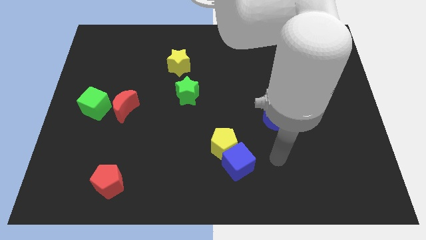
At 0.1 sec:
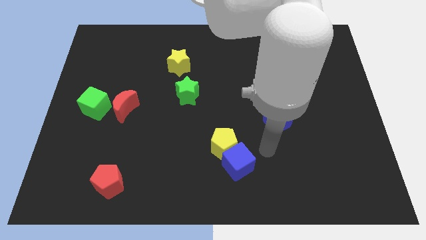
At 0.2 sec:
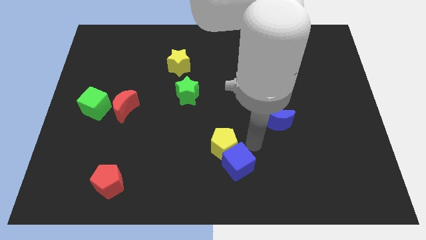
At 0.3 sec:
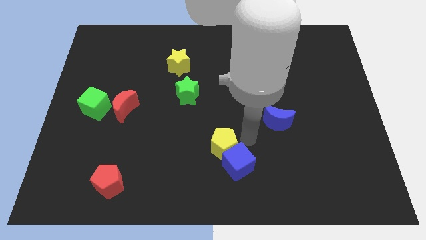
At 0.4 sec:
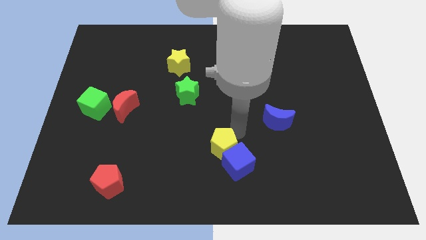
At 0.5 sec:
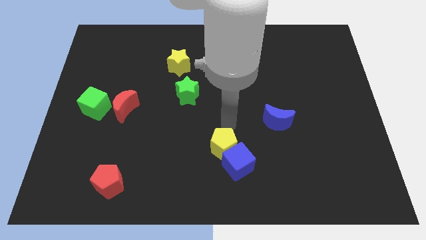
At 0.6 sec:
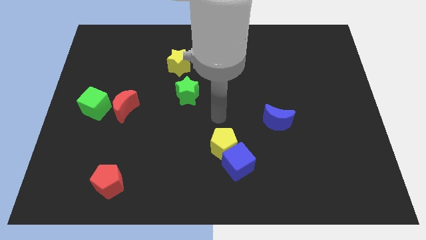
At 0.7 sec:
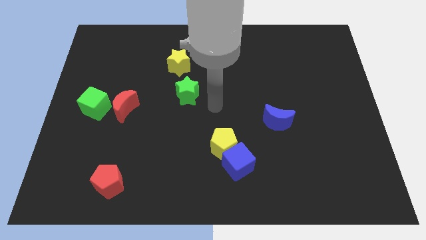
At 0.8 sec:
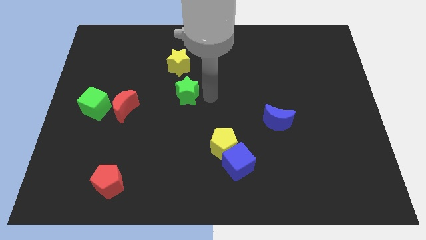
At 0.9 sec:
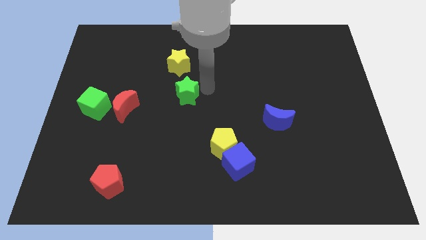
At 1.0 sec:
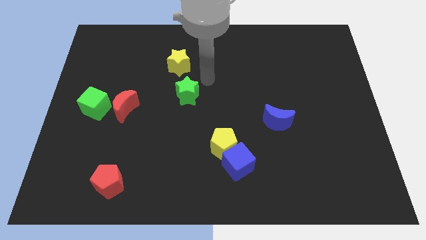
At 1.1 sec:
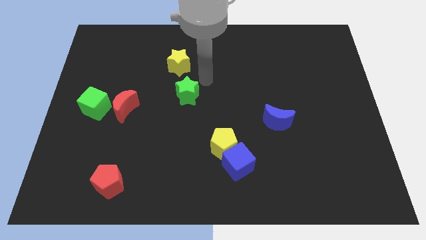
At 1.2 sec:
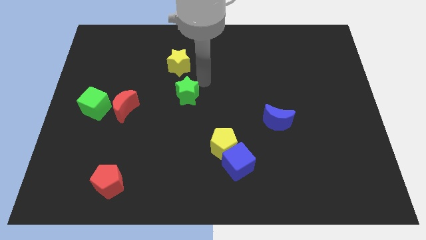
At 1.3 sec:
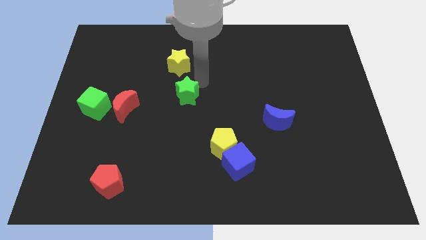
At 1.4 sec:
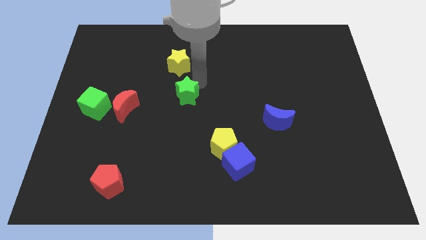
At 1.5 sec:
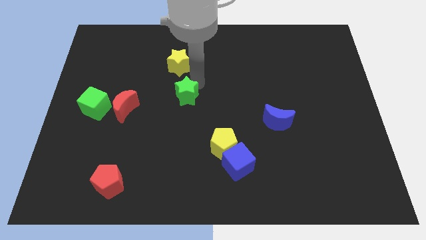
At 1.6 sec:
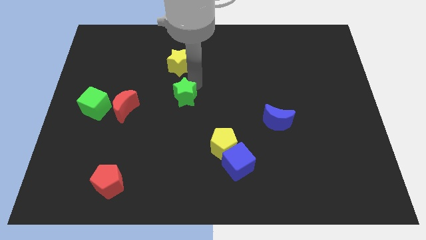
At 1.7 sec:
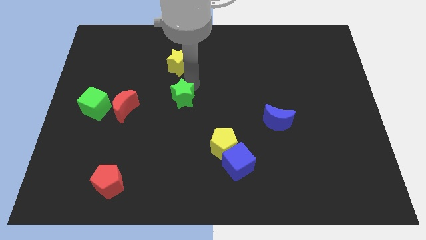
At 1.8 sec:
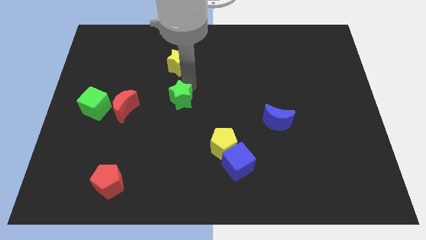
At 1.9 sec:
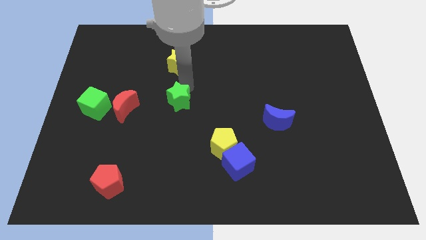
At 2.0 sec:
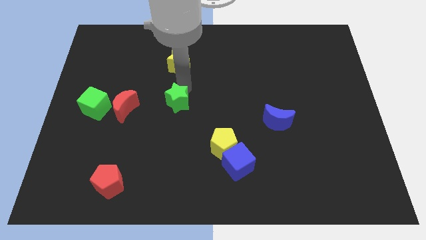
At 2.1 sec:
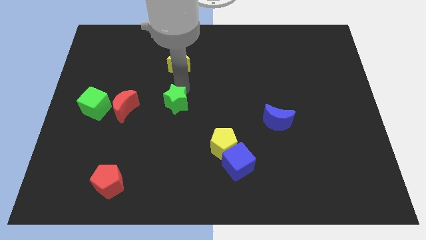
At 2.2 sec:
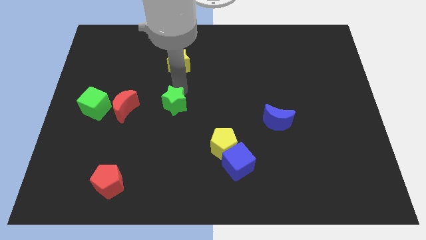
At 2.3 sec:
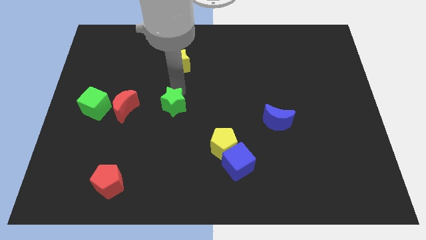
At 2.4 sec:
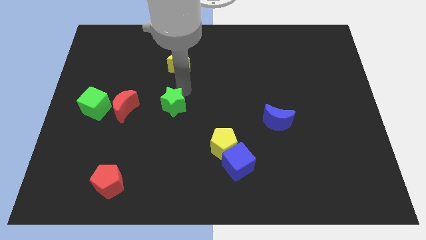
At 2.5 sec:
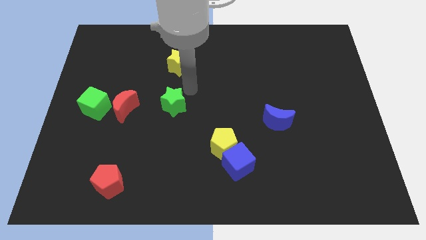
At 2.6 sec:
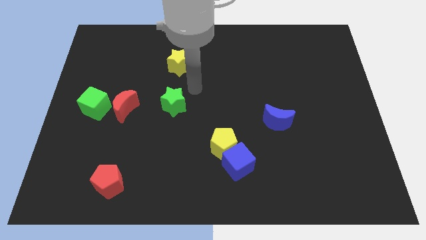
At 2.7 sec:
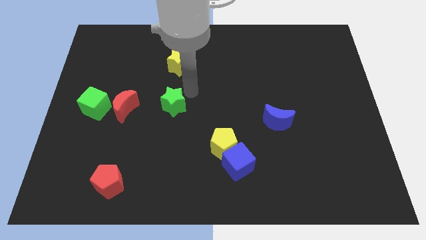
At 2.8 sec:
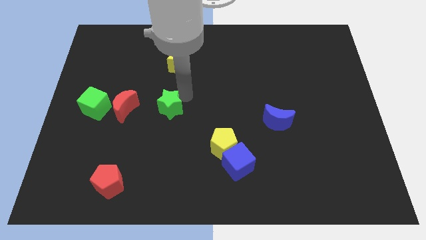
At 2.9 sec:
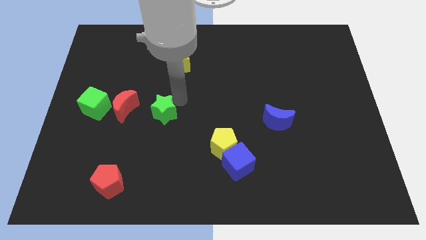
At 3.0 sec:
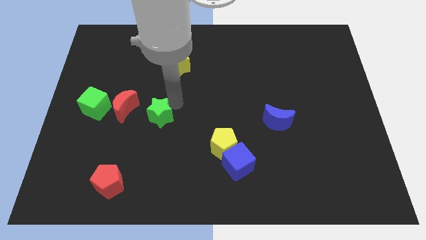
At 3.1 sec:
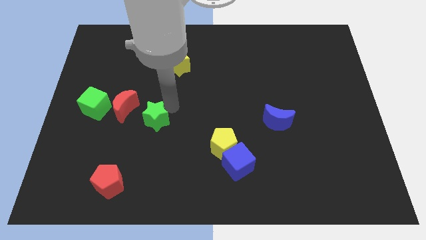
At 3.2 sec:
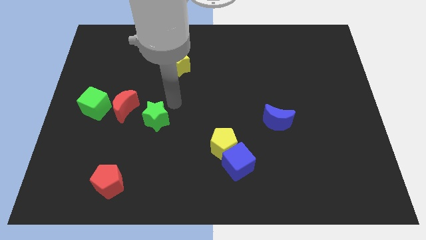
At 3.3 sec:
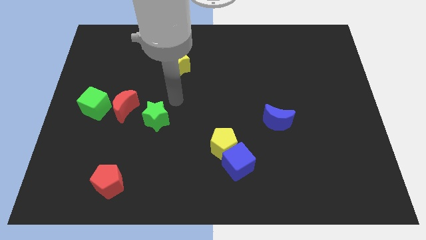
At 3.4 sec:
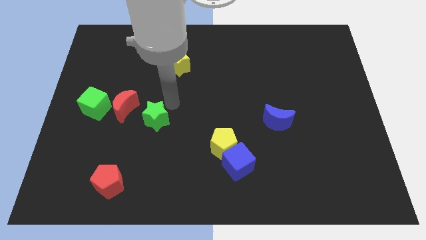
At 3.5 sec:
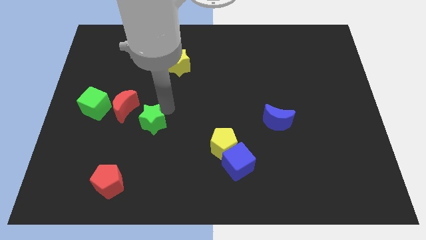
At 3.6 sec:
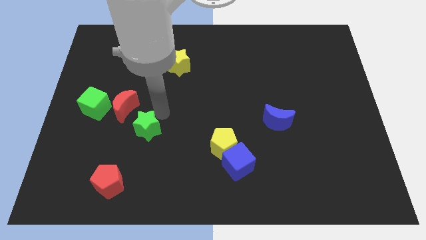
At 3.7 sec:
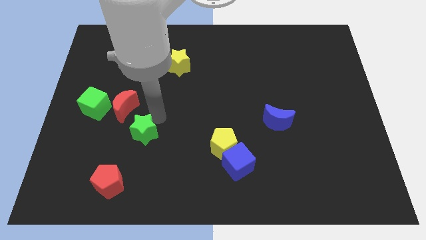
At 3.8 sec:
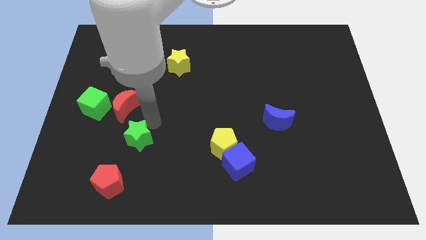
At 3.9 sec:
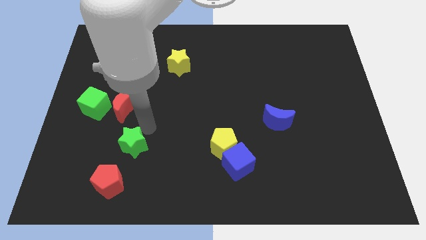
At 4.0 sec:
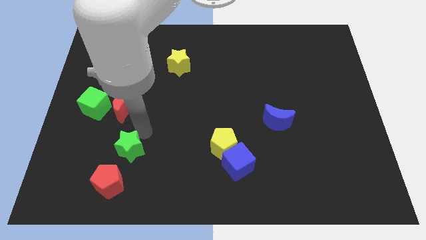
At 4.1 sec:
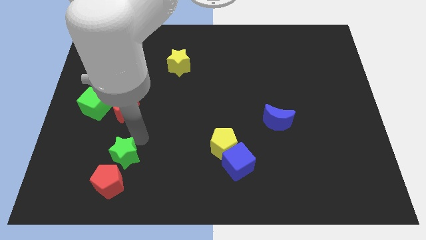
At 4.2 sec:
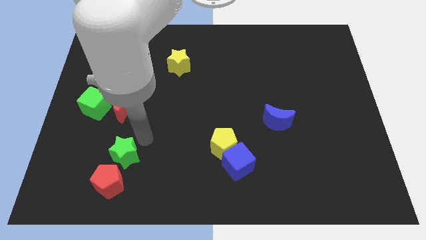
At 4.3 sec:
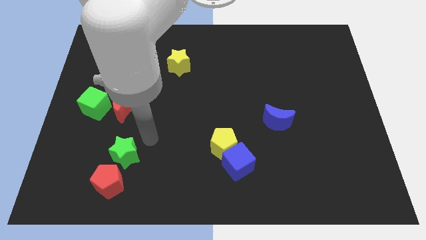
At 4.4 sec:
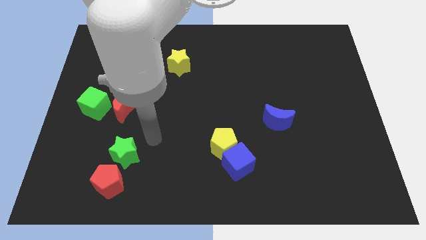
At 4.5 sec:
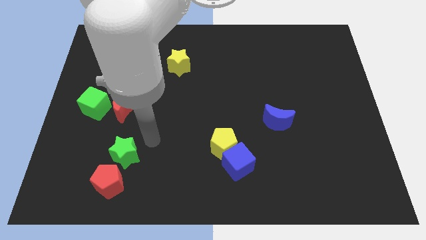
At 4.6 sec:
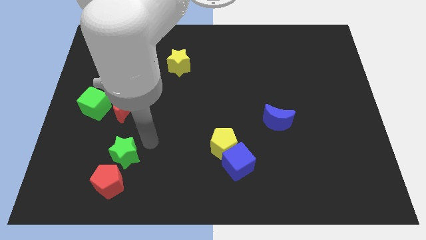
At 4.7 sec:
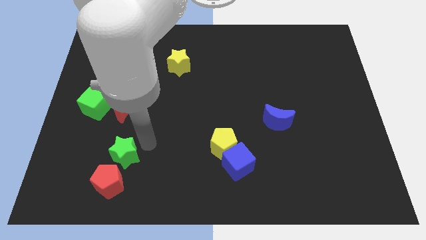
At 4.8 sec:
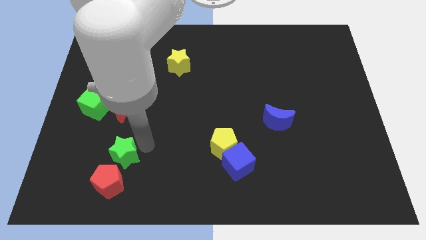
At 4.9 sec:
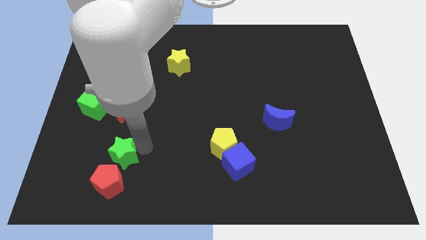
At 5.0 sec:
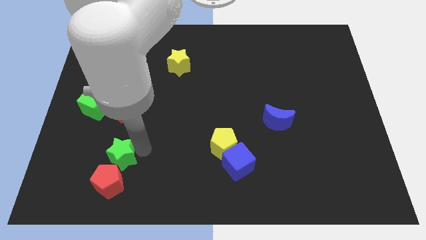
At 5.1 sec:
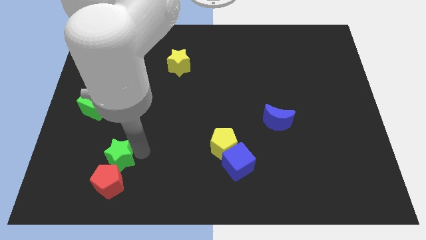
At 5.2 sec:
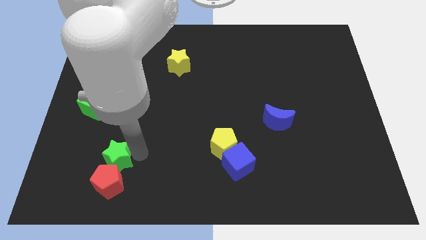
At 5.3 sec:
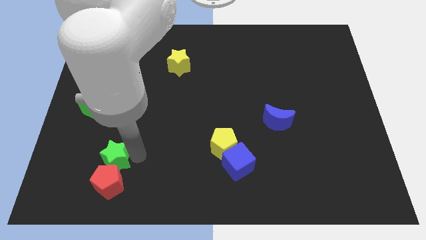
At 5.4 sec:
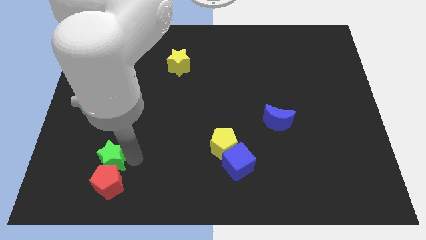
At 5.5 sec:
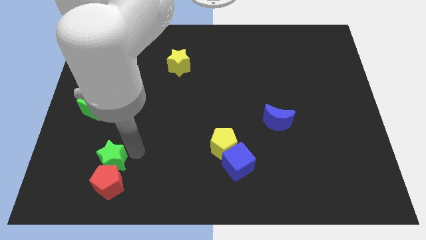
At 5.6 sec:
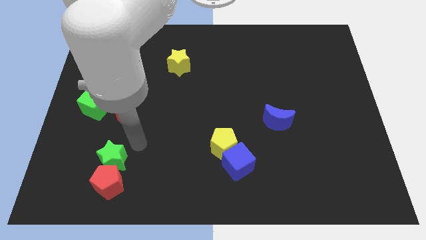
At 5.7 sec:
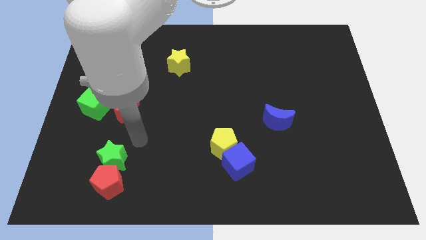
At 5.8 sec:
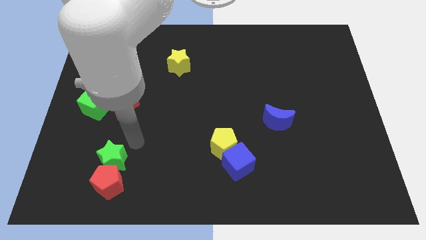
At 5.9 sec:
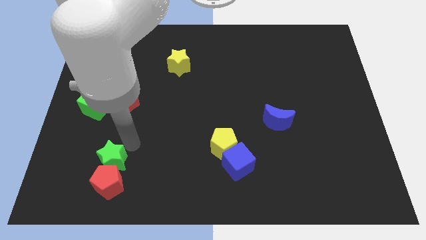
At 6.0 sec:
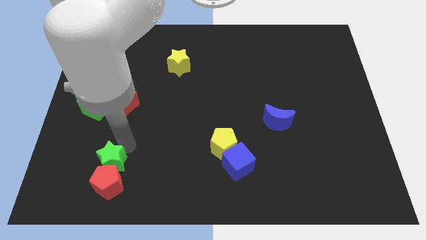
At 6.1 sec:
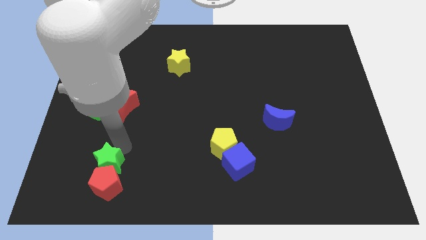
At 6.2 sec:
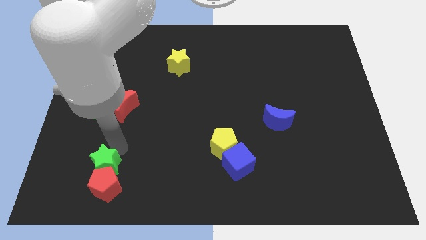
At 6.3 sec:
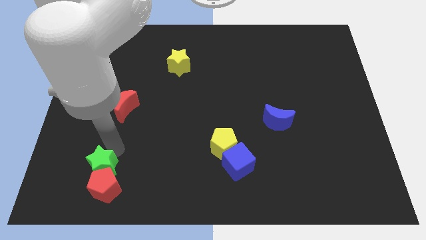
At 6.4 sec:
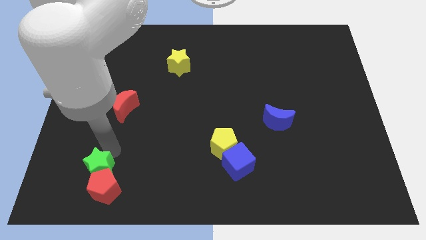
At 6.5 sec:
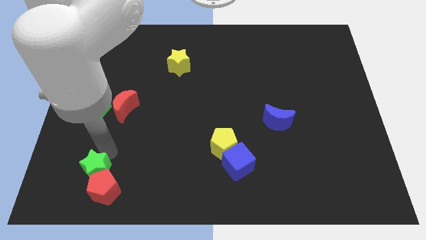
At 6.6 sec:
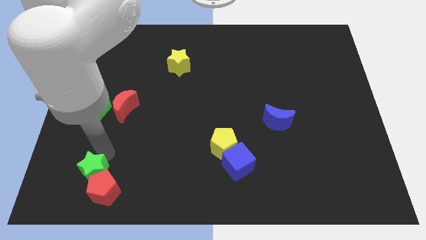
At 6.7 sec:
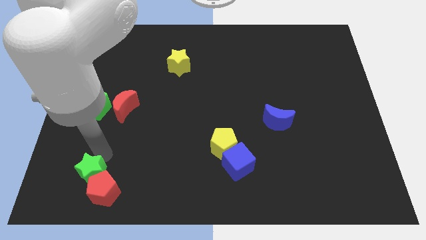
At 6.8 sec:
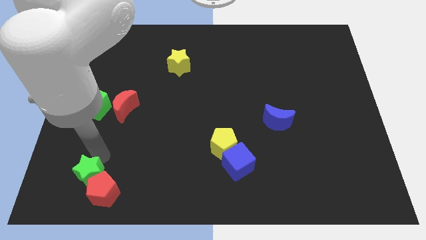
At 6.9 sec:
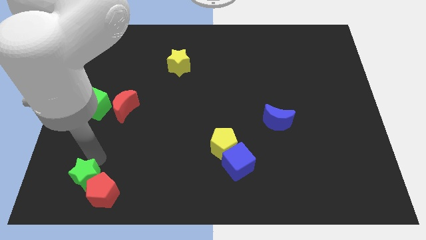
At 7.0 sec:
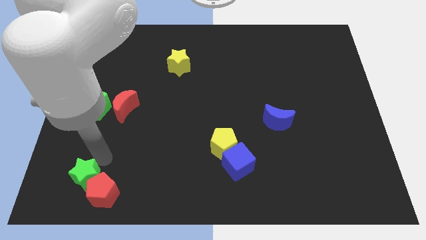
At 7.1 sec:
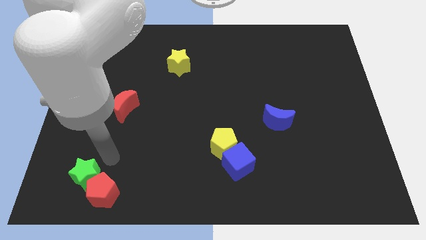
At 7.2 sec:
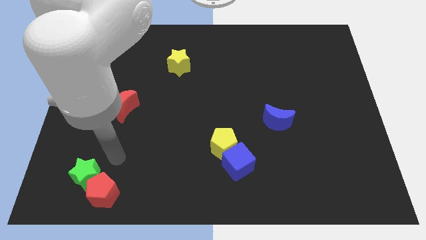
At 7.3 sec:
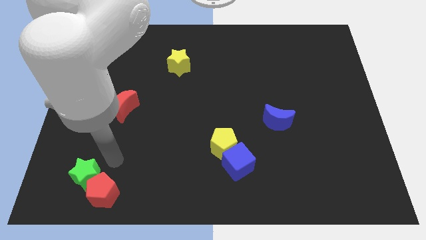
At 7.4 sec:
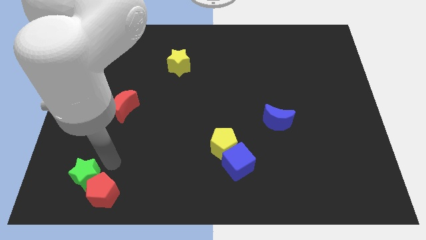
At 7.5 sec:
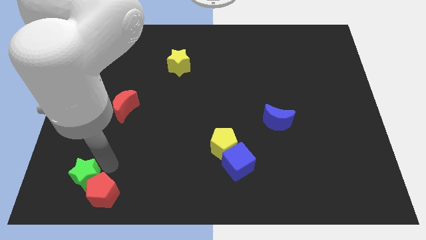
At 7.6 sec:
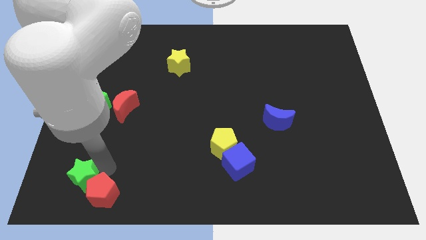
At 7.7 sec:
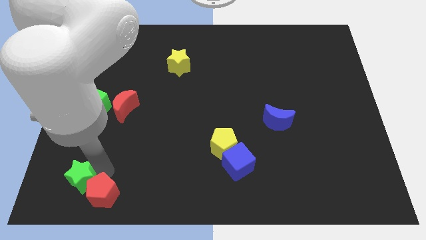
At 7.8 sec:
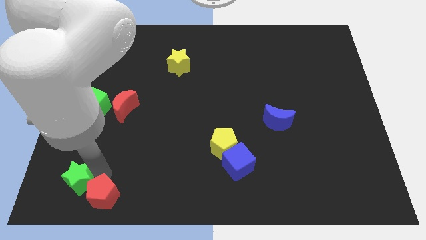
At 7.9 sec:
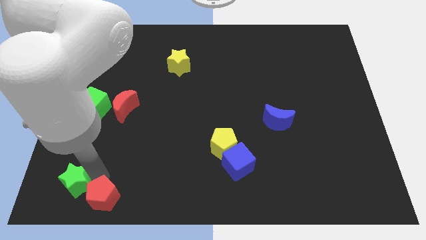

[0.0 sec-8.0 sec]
slide the green star to the bottom left
